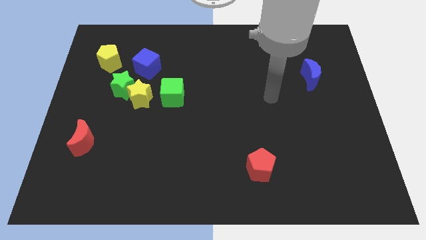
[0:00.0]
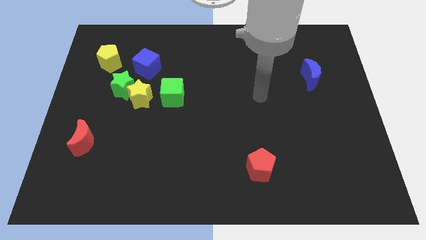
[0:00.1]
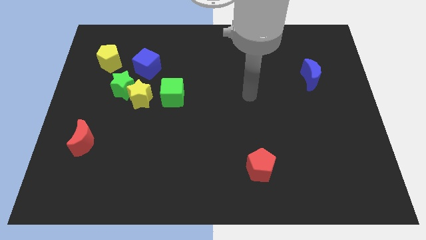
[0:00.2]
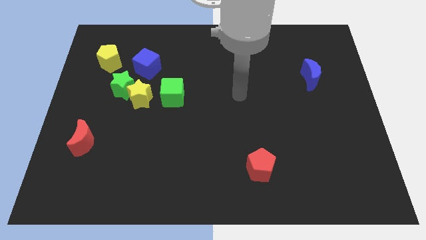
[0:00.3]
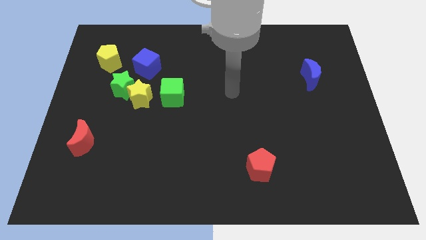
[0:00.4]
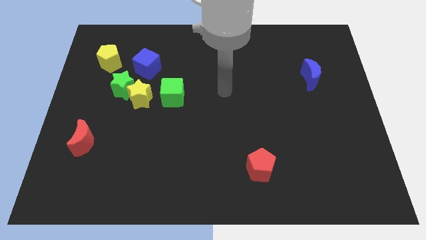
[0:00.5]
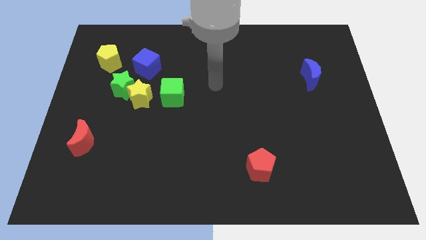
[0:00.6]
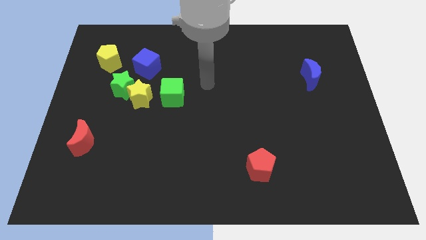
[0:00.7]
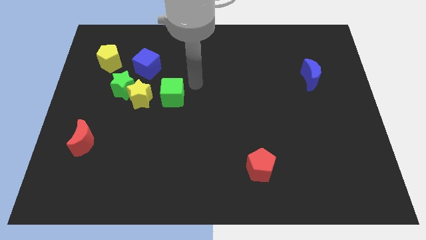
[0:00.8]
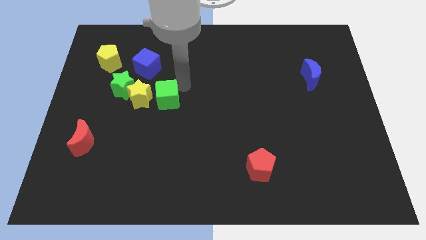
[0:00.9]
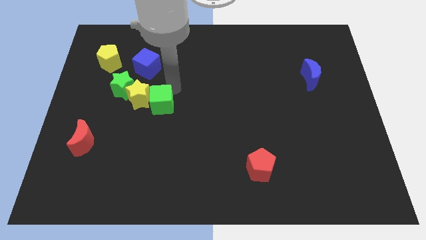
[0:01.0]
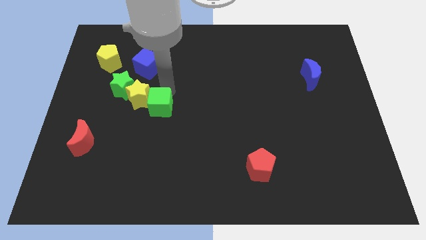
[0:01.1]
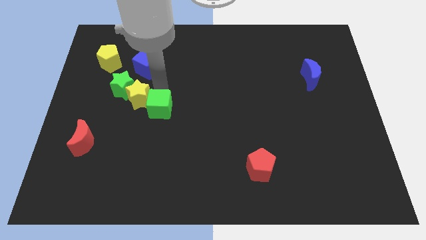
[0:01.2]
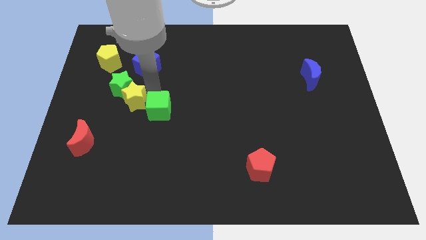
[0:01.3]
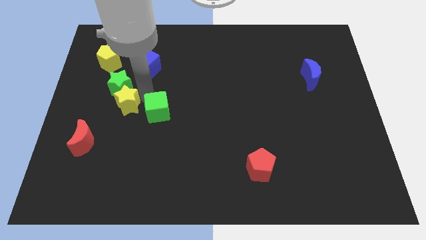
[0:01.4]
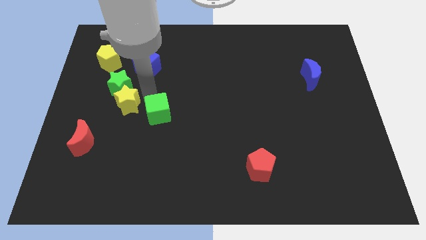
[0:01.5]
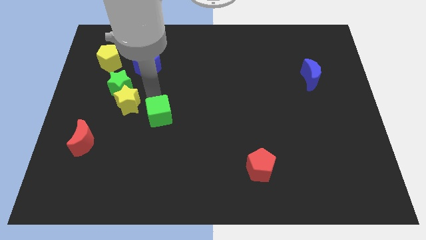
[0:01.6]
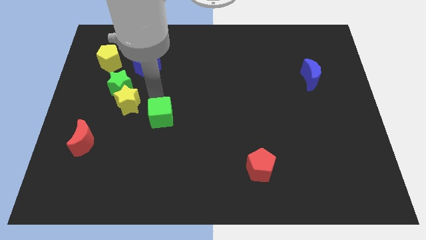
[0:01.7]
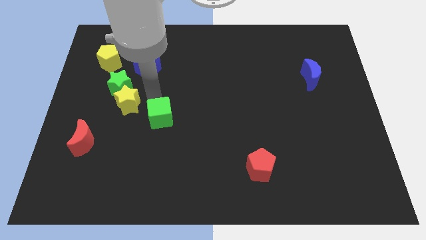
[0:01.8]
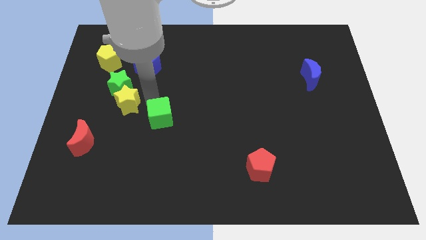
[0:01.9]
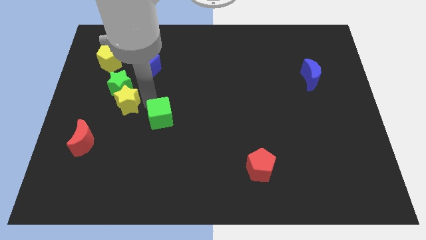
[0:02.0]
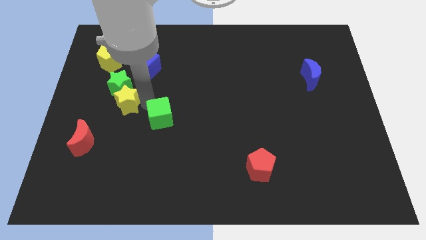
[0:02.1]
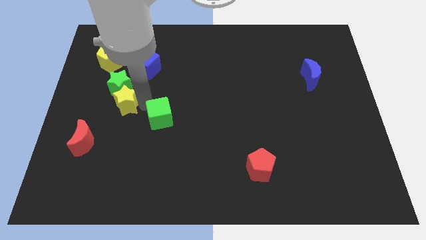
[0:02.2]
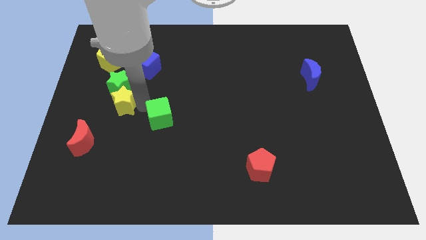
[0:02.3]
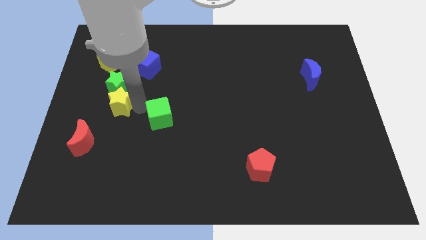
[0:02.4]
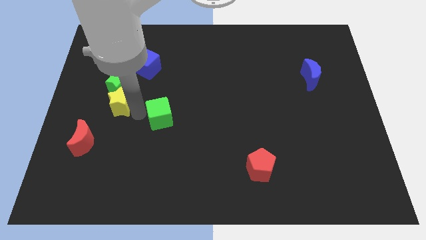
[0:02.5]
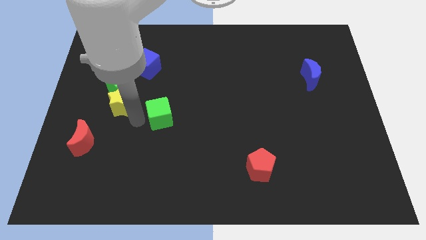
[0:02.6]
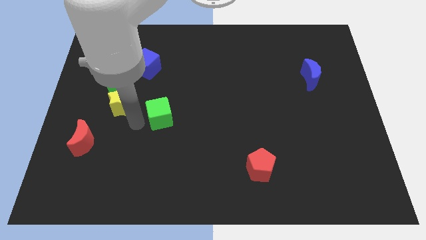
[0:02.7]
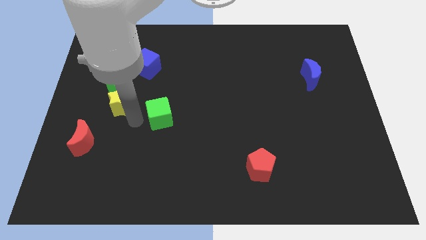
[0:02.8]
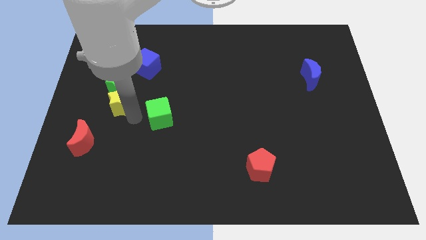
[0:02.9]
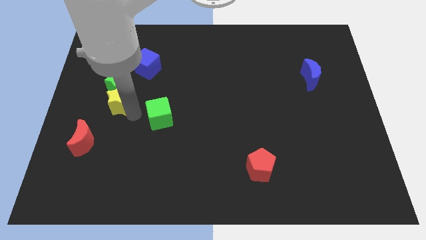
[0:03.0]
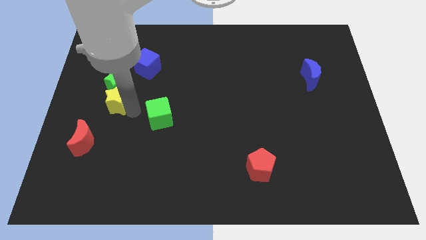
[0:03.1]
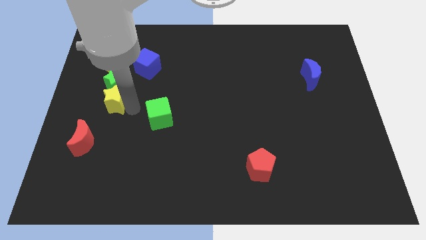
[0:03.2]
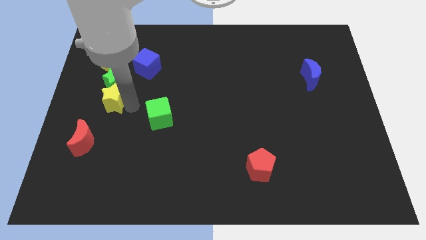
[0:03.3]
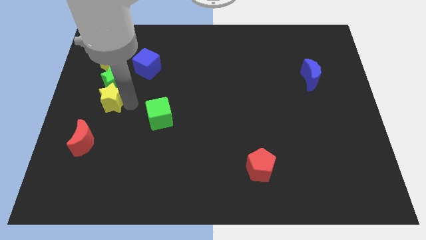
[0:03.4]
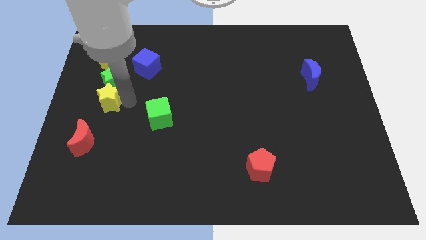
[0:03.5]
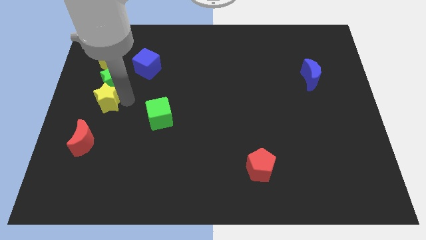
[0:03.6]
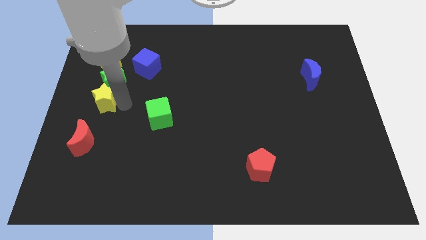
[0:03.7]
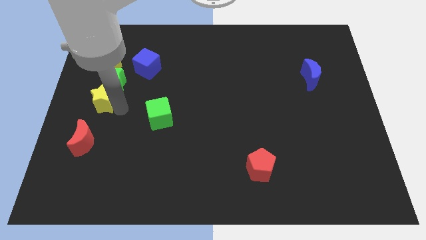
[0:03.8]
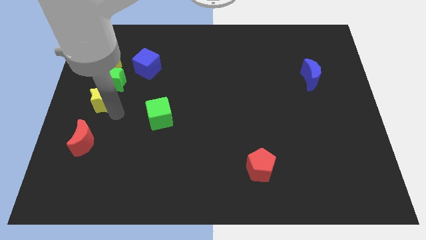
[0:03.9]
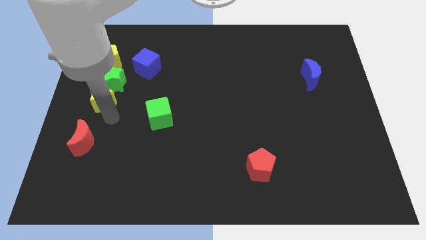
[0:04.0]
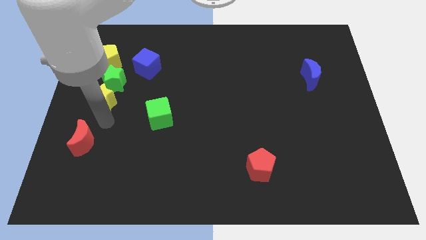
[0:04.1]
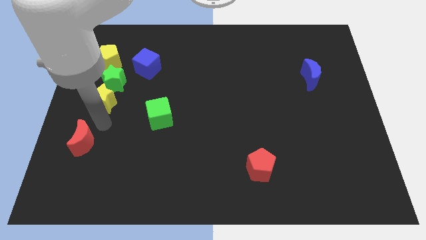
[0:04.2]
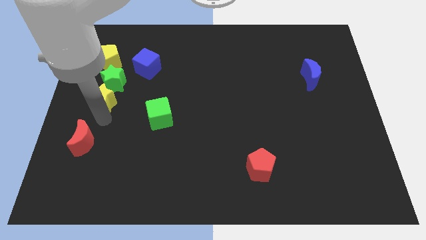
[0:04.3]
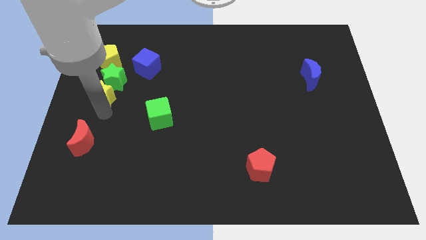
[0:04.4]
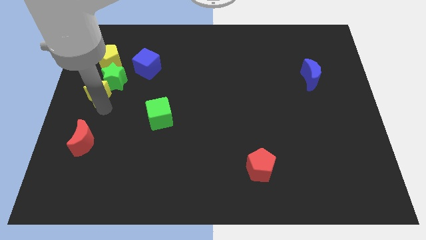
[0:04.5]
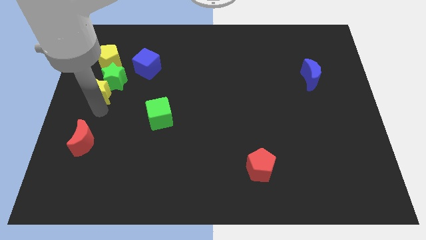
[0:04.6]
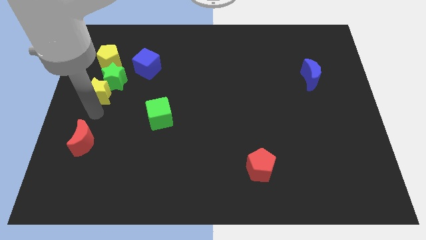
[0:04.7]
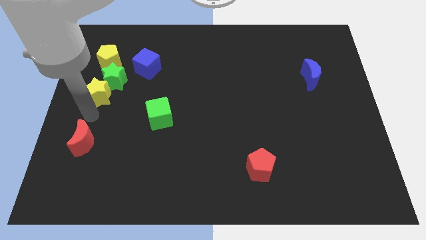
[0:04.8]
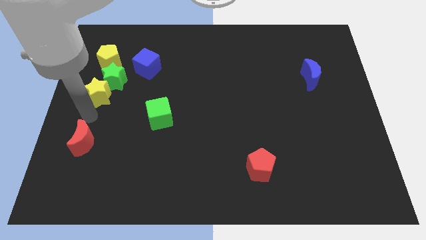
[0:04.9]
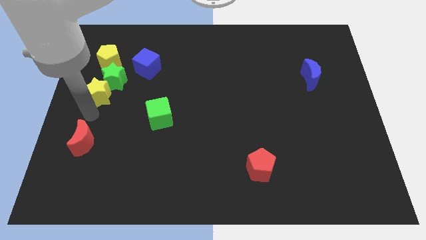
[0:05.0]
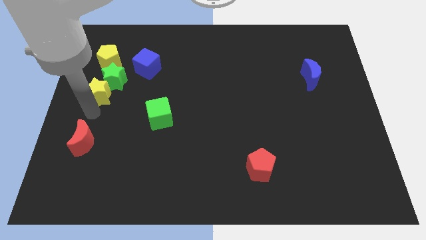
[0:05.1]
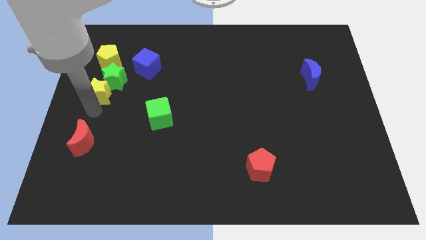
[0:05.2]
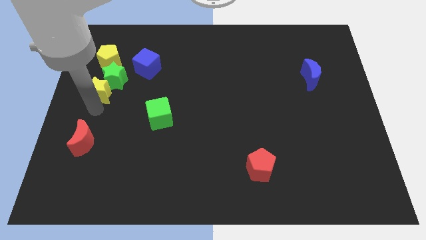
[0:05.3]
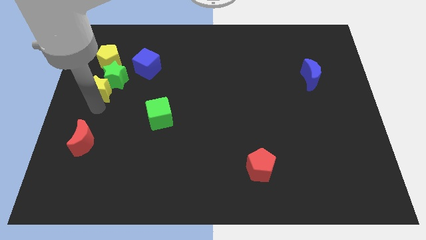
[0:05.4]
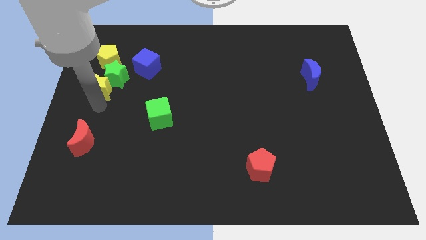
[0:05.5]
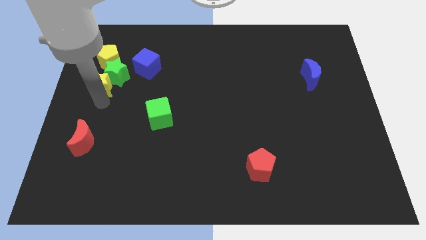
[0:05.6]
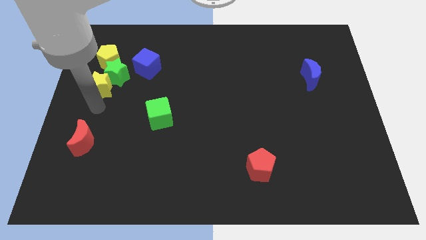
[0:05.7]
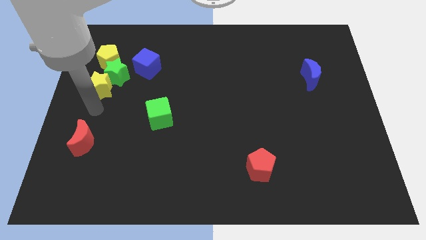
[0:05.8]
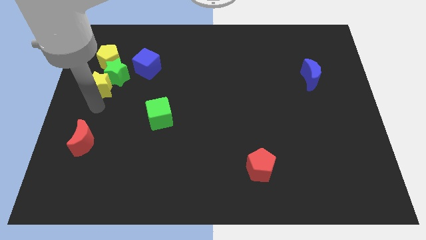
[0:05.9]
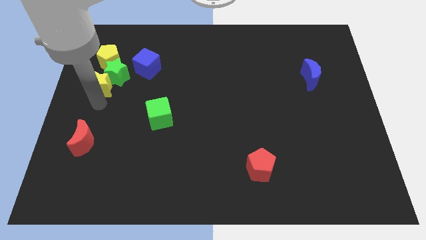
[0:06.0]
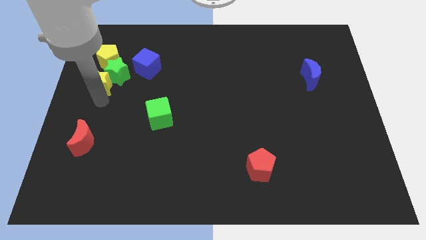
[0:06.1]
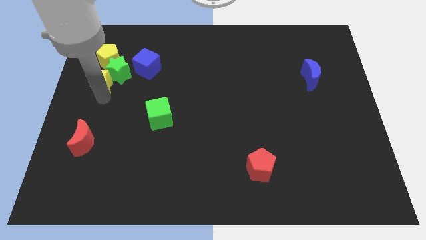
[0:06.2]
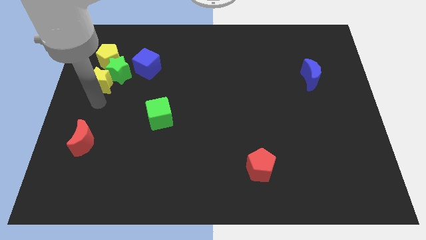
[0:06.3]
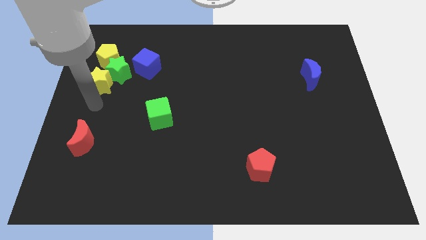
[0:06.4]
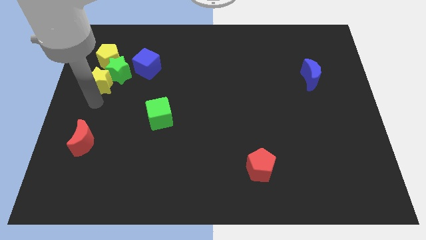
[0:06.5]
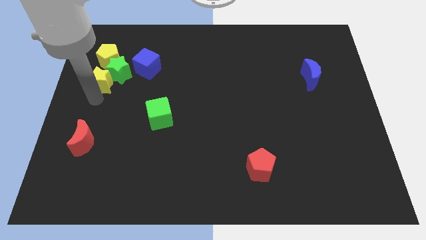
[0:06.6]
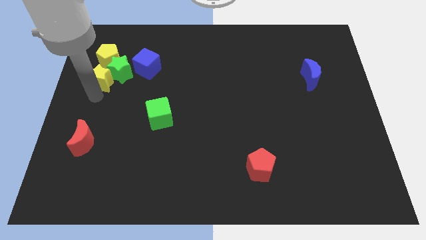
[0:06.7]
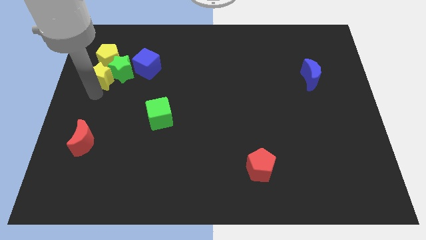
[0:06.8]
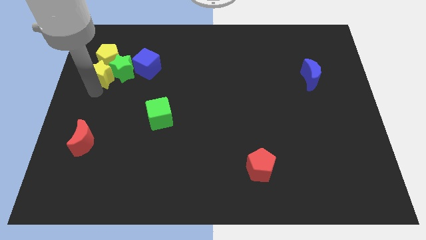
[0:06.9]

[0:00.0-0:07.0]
move the yellow star close to the yellow pentagon

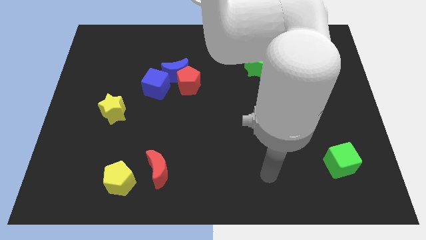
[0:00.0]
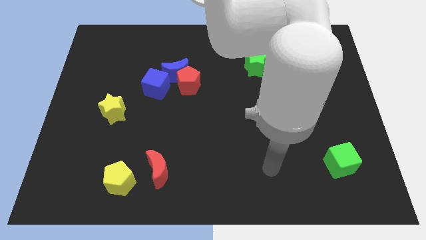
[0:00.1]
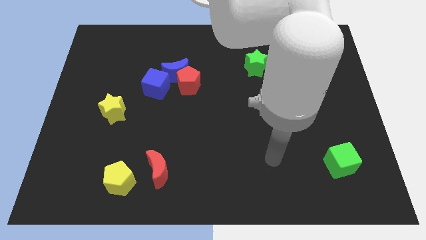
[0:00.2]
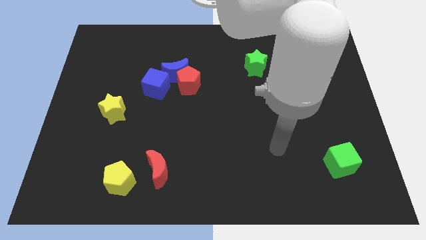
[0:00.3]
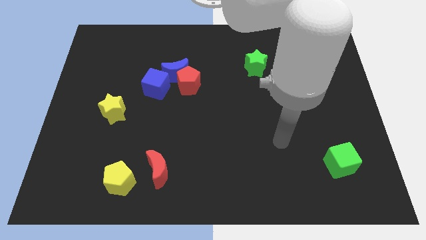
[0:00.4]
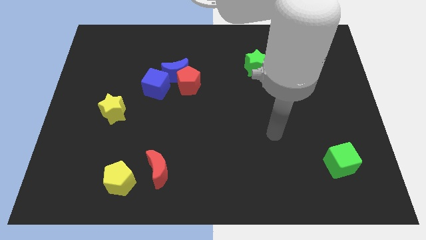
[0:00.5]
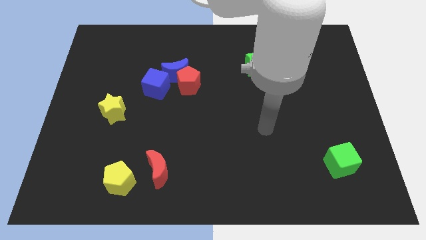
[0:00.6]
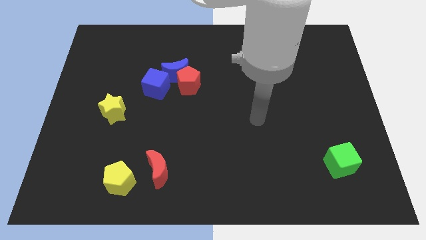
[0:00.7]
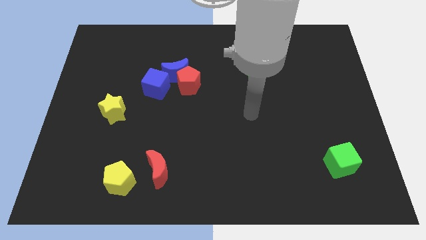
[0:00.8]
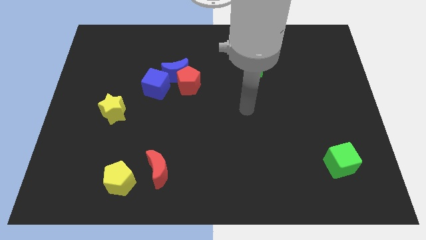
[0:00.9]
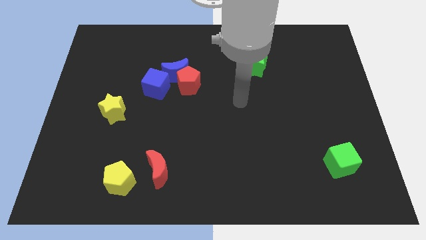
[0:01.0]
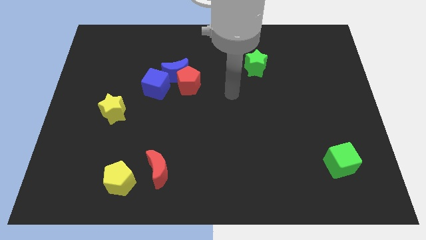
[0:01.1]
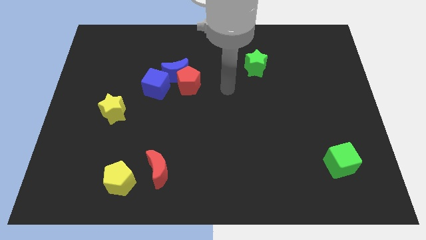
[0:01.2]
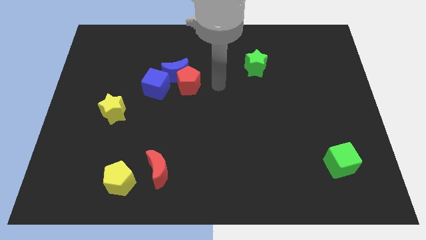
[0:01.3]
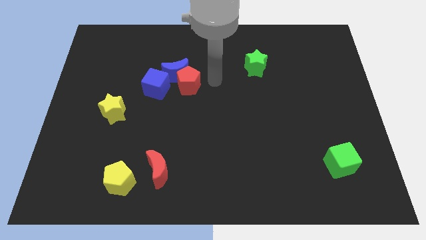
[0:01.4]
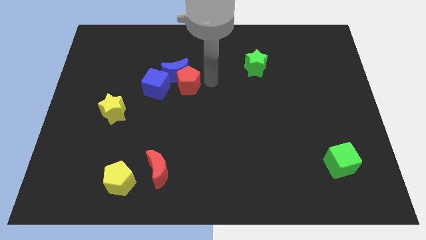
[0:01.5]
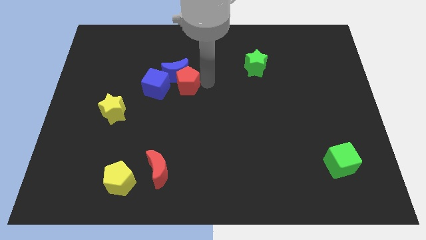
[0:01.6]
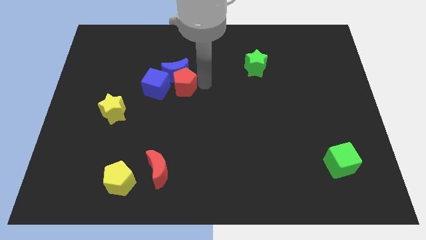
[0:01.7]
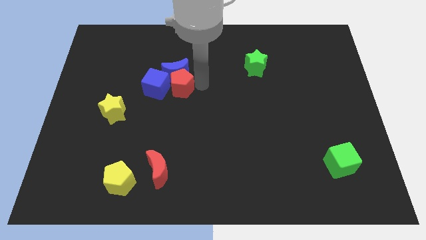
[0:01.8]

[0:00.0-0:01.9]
put the red pentagon towards the blue cube
